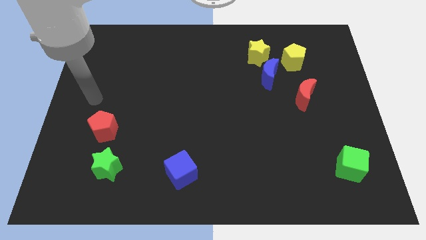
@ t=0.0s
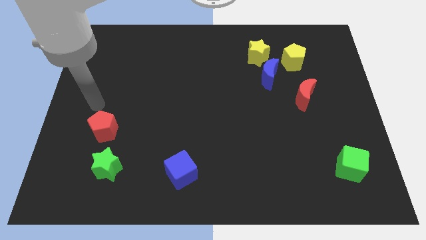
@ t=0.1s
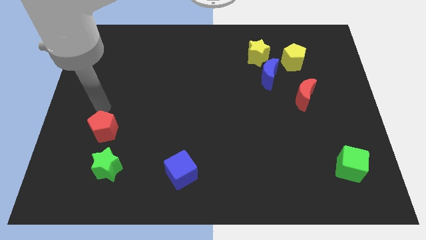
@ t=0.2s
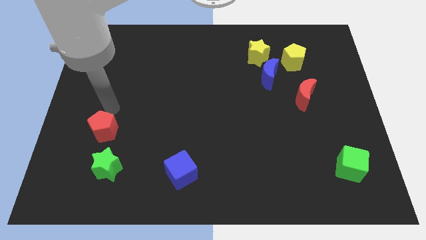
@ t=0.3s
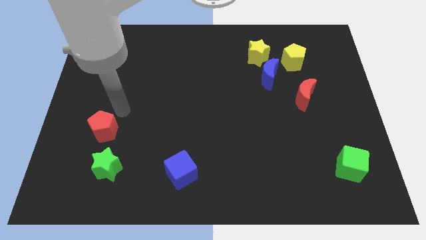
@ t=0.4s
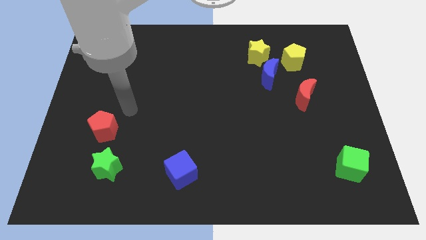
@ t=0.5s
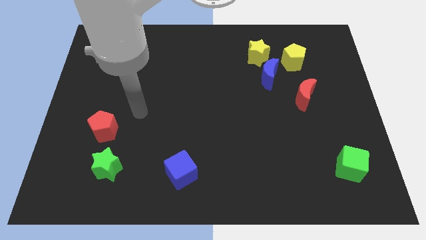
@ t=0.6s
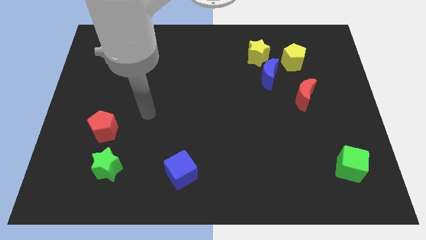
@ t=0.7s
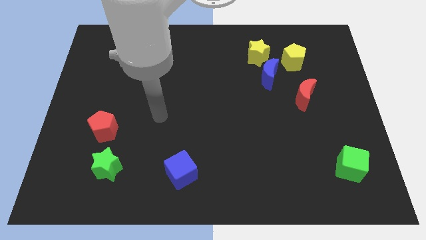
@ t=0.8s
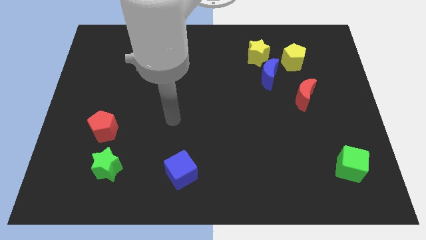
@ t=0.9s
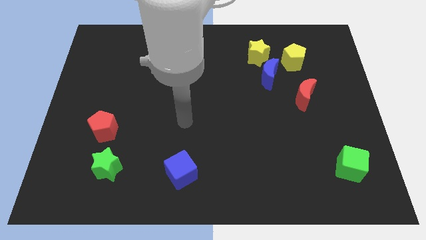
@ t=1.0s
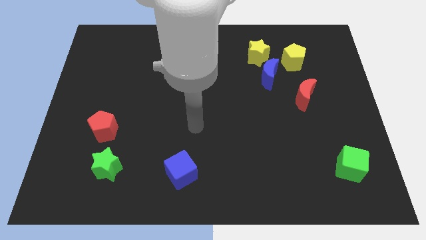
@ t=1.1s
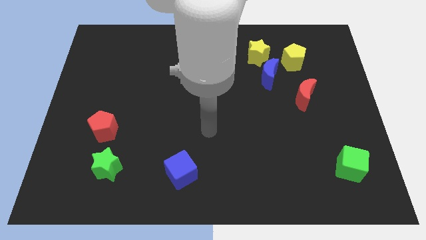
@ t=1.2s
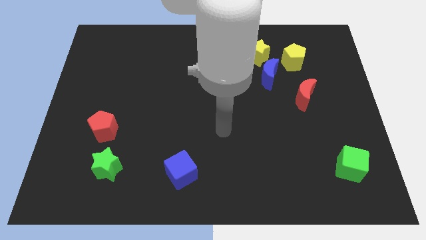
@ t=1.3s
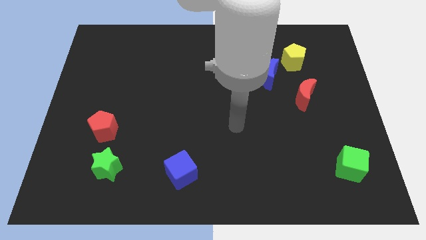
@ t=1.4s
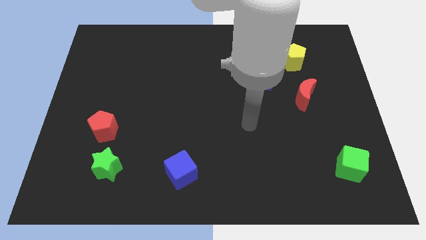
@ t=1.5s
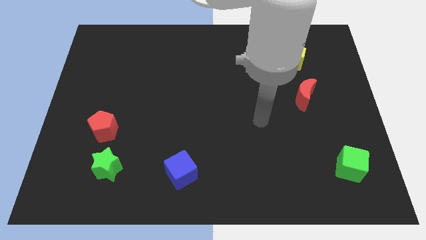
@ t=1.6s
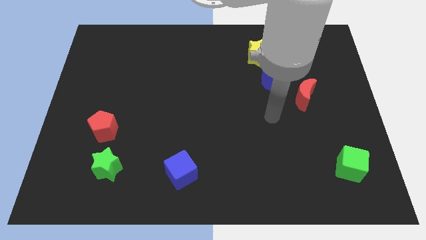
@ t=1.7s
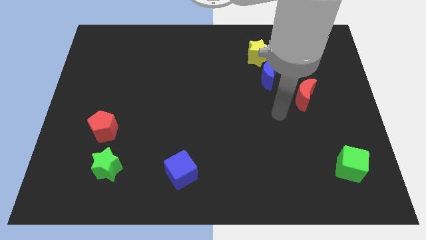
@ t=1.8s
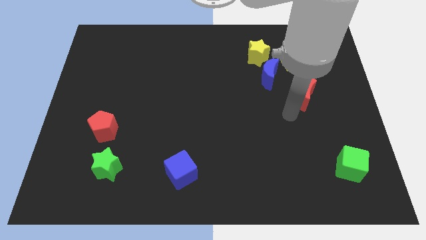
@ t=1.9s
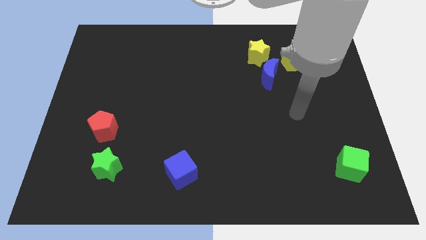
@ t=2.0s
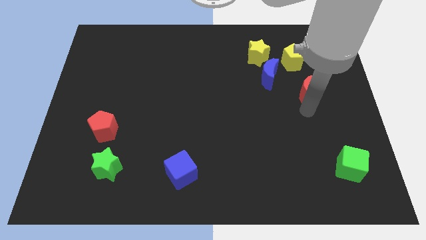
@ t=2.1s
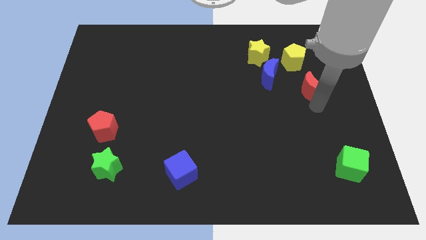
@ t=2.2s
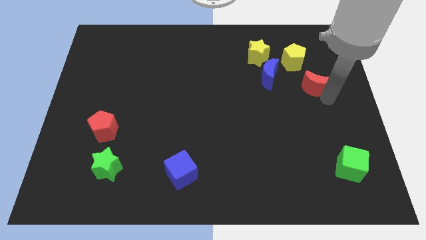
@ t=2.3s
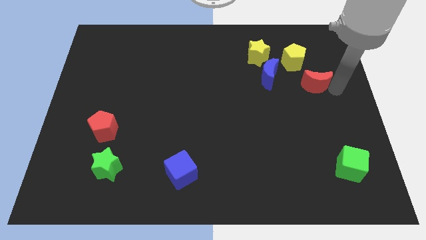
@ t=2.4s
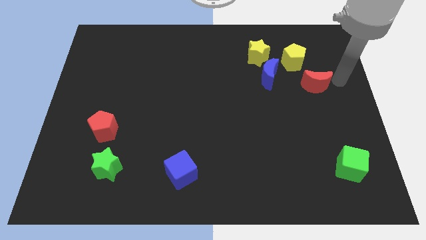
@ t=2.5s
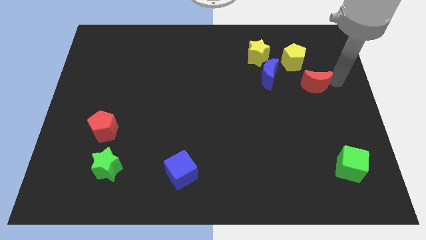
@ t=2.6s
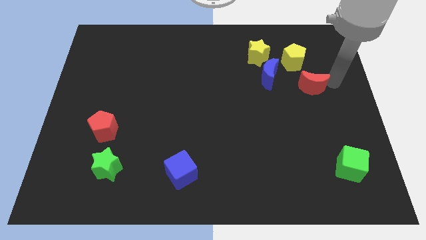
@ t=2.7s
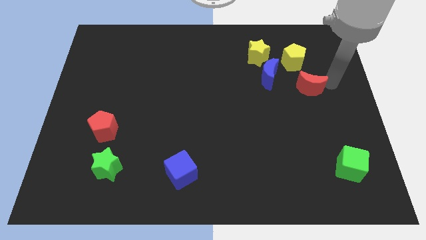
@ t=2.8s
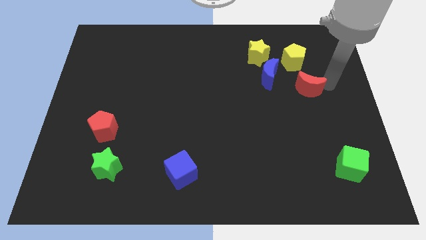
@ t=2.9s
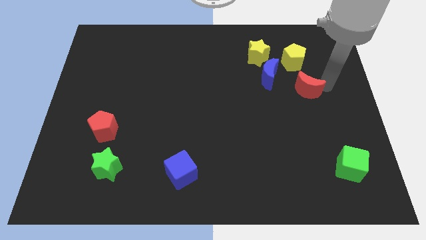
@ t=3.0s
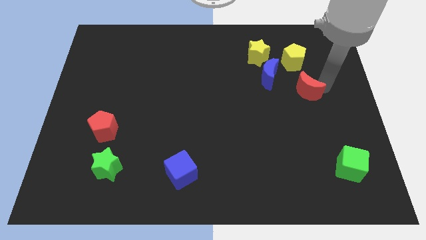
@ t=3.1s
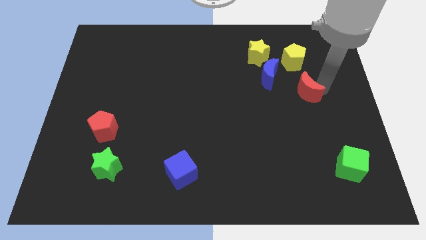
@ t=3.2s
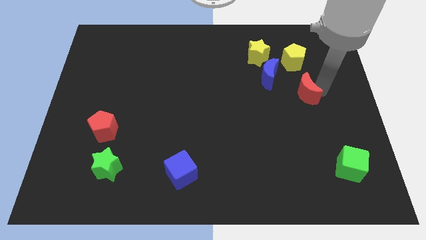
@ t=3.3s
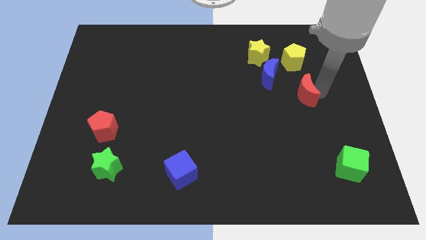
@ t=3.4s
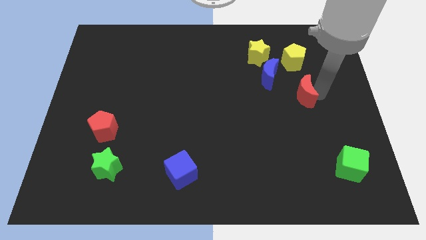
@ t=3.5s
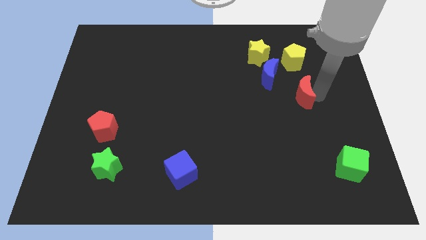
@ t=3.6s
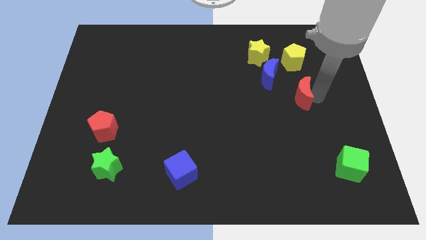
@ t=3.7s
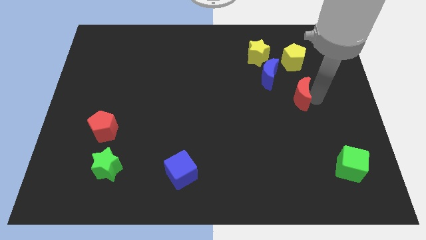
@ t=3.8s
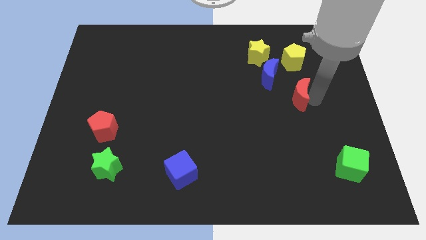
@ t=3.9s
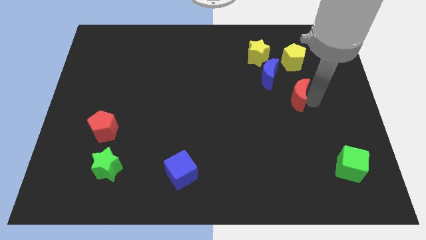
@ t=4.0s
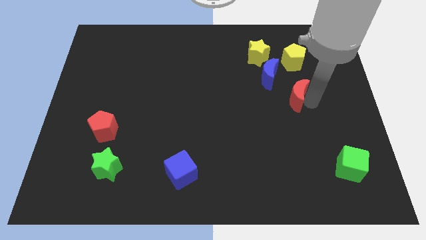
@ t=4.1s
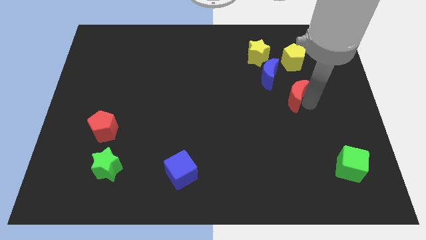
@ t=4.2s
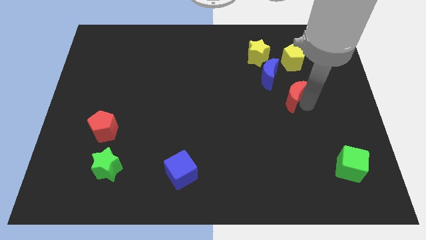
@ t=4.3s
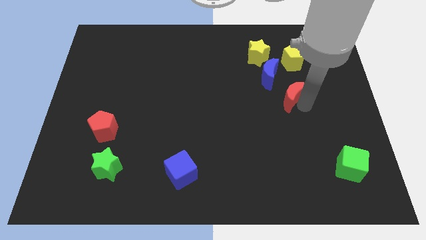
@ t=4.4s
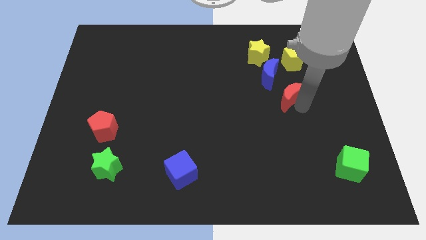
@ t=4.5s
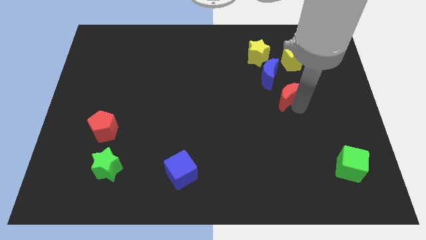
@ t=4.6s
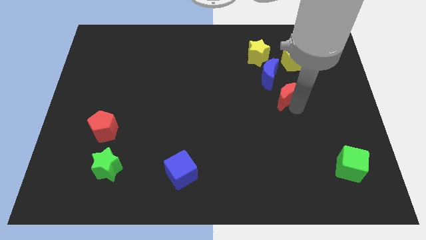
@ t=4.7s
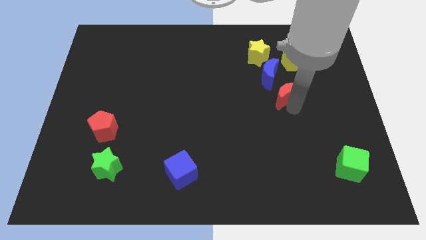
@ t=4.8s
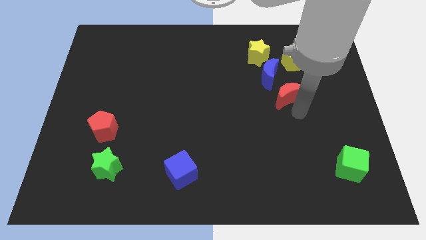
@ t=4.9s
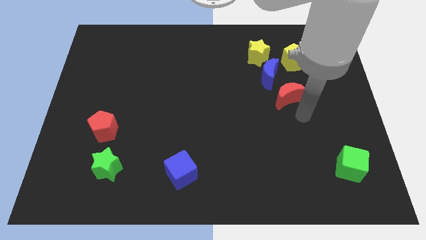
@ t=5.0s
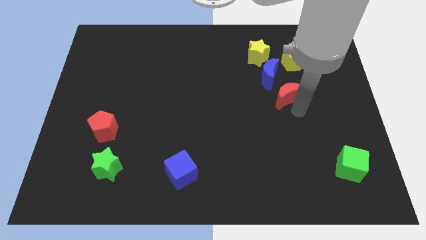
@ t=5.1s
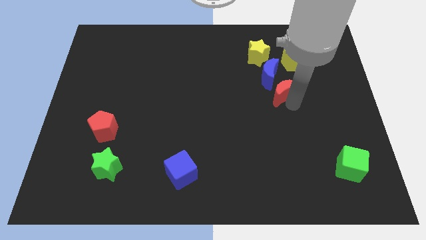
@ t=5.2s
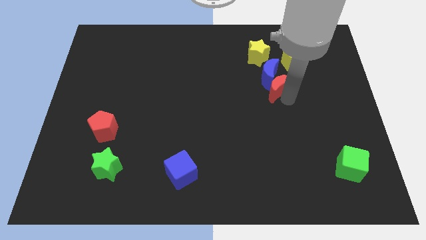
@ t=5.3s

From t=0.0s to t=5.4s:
put the red moon next to the blue moon

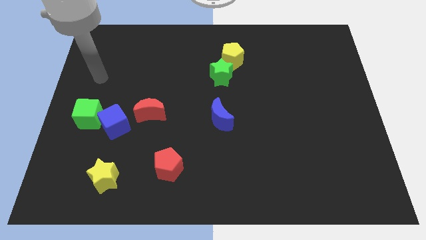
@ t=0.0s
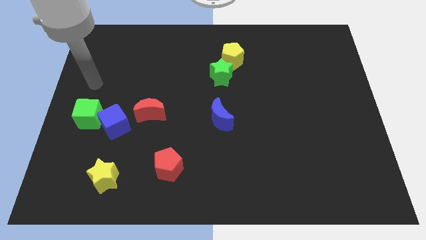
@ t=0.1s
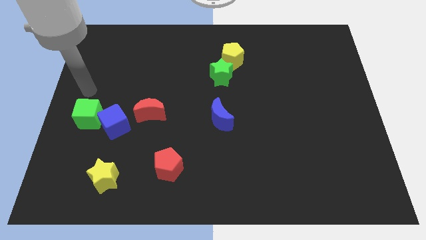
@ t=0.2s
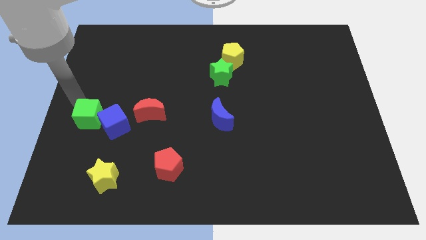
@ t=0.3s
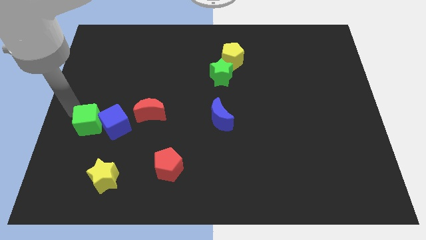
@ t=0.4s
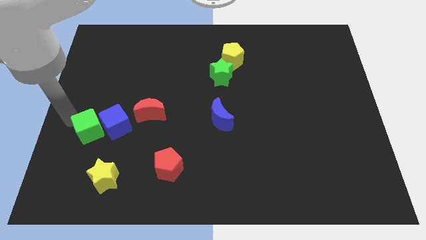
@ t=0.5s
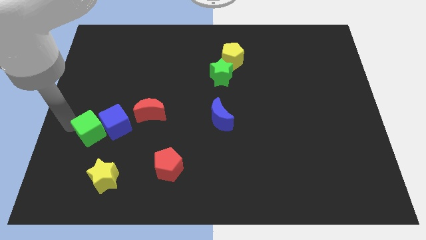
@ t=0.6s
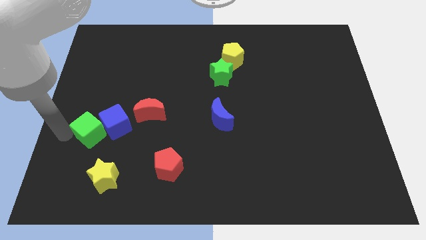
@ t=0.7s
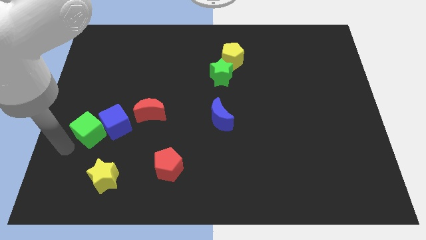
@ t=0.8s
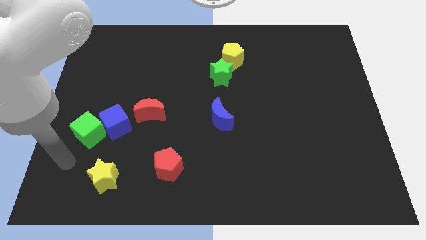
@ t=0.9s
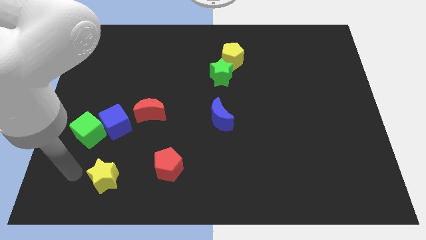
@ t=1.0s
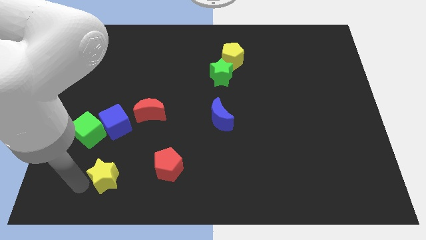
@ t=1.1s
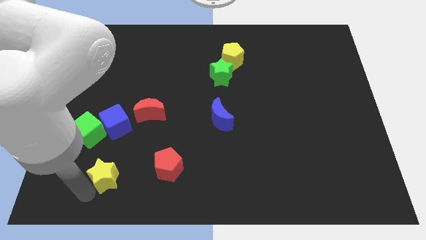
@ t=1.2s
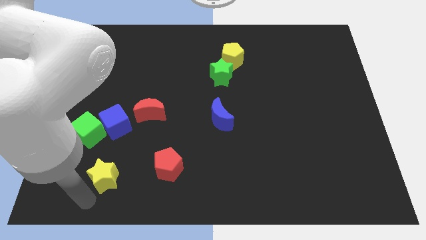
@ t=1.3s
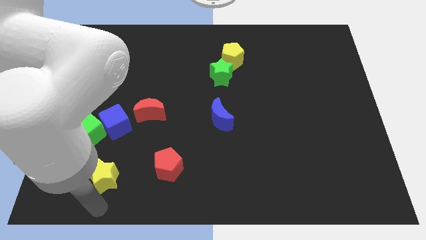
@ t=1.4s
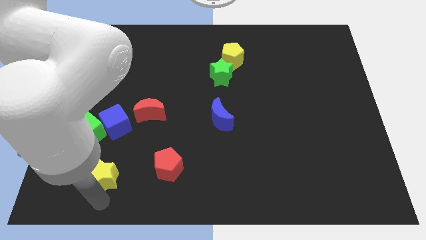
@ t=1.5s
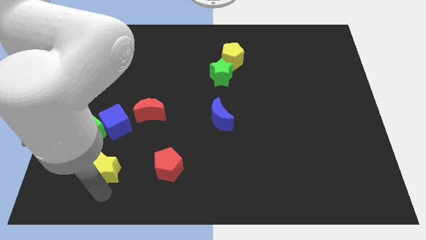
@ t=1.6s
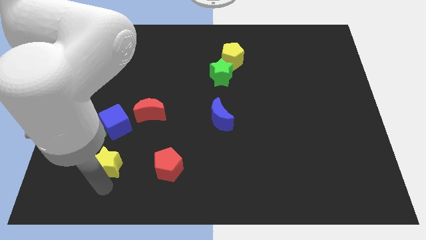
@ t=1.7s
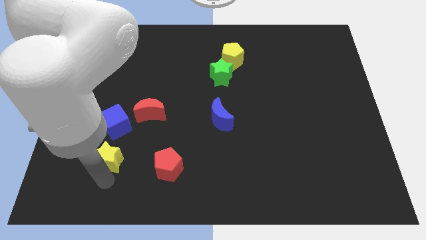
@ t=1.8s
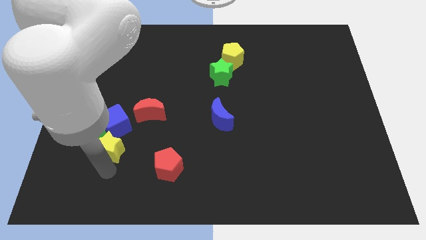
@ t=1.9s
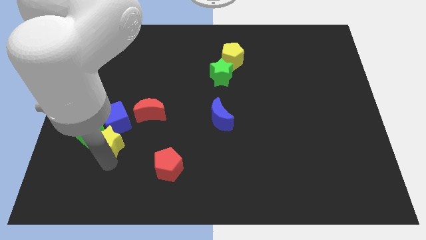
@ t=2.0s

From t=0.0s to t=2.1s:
slide the yellow star towards the blue cube
